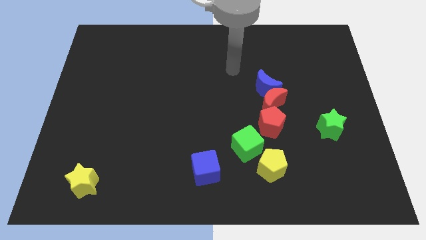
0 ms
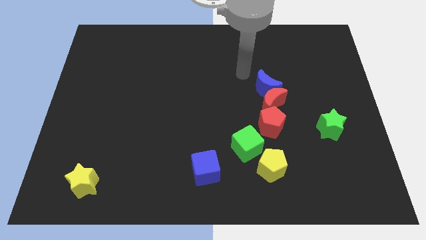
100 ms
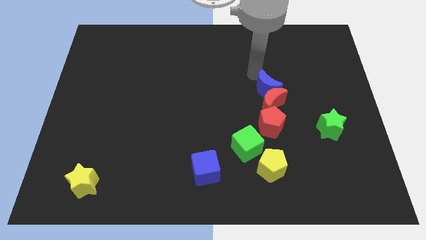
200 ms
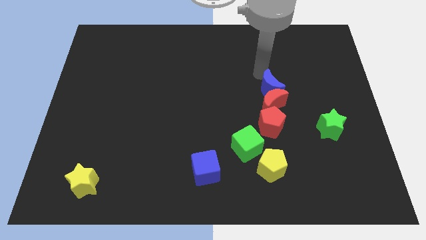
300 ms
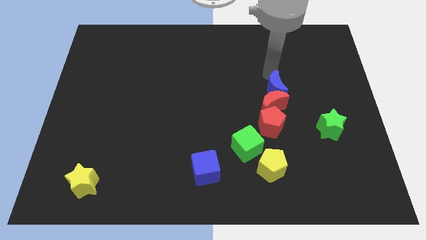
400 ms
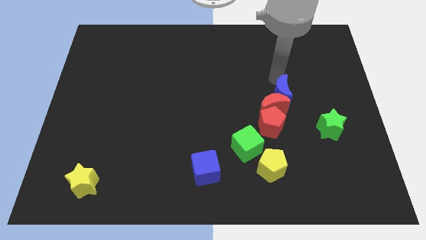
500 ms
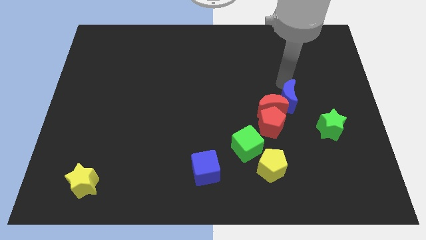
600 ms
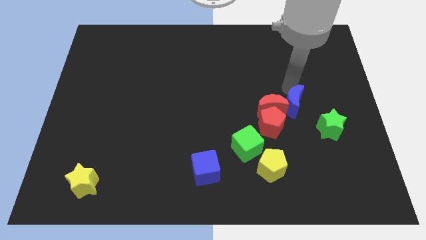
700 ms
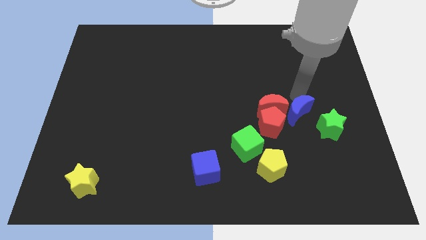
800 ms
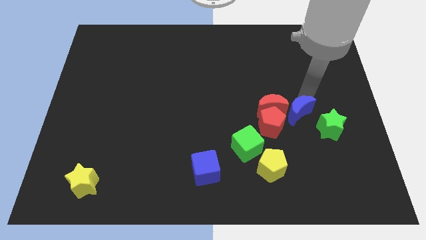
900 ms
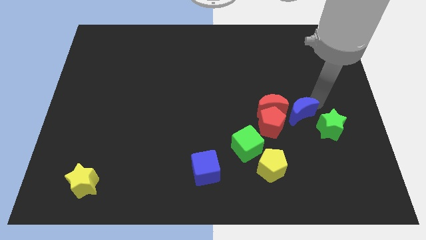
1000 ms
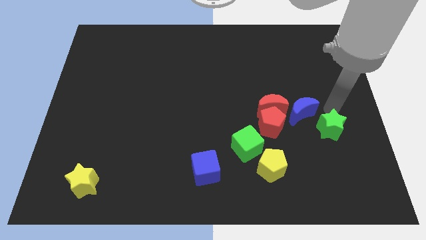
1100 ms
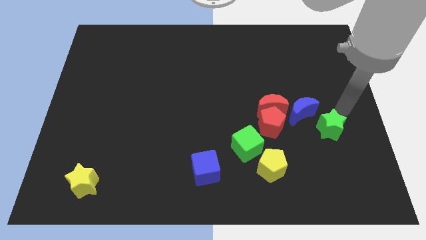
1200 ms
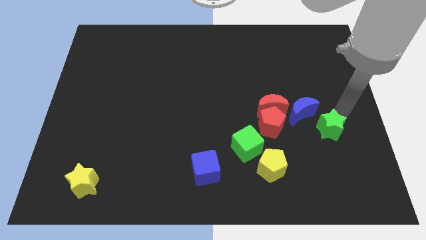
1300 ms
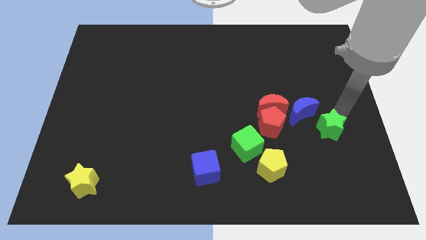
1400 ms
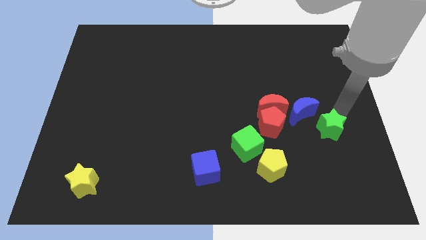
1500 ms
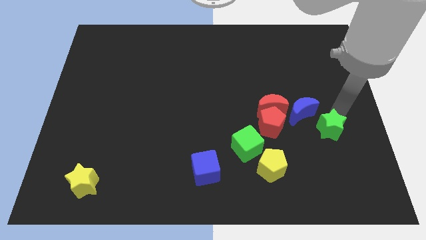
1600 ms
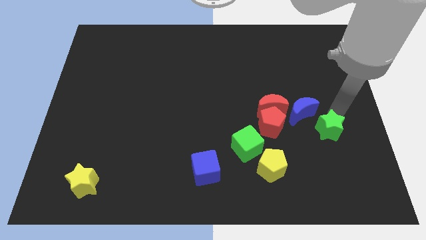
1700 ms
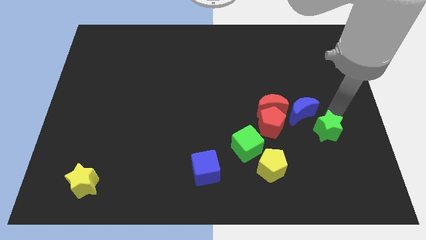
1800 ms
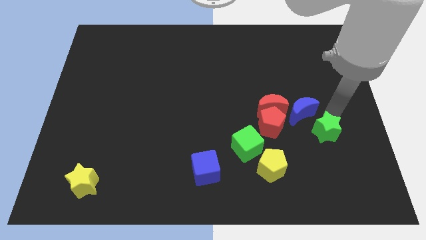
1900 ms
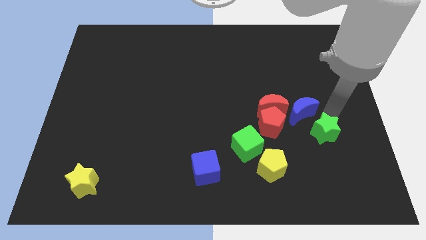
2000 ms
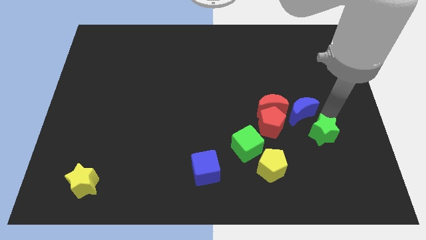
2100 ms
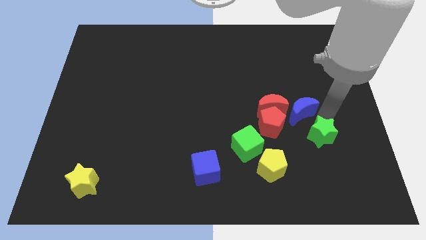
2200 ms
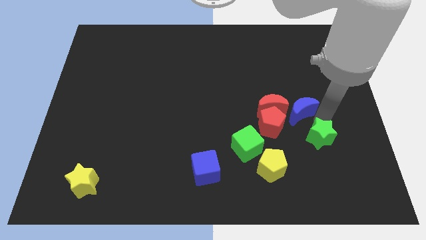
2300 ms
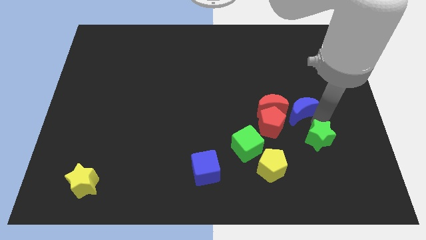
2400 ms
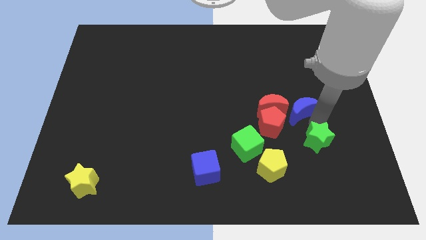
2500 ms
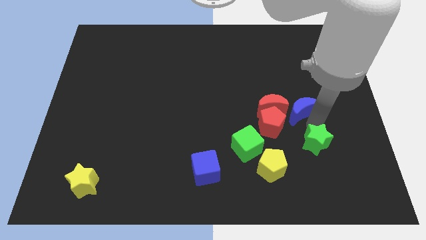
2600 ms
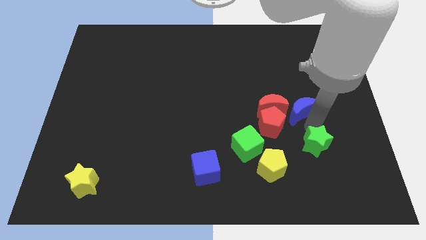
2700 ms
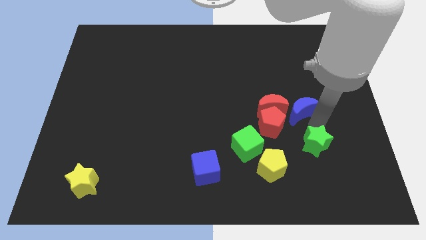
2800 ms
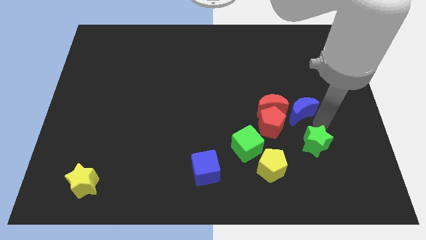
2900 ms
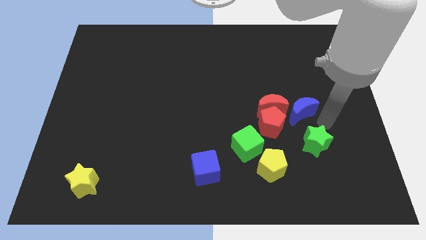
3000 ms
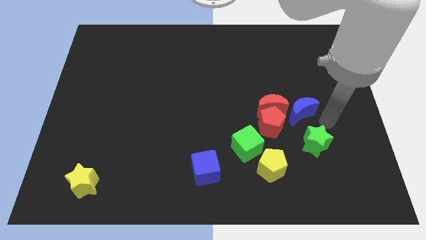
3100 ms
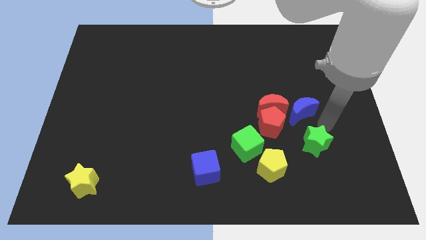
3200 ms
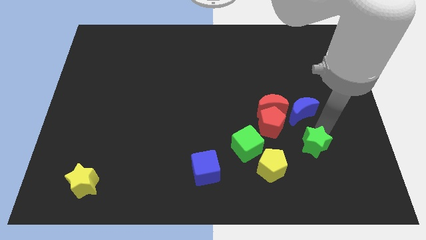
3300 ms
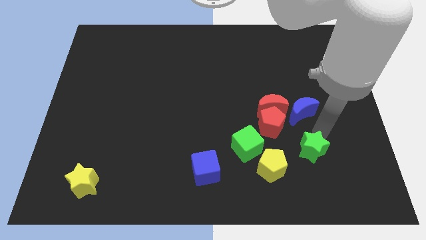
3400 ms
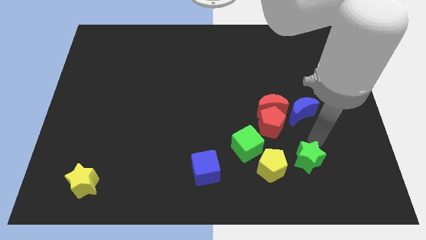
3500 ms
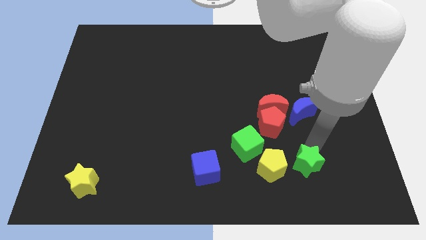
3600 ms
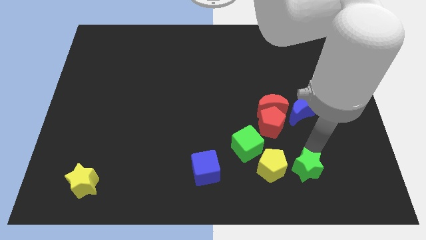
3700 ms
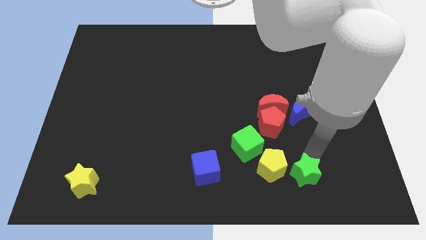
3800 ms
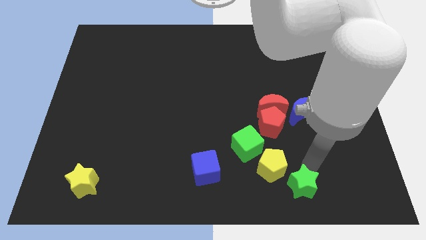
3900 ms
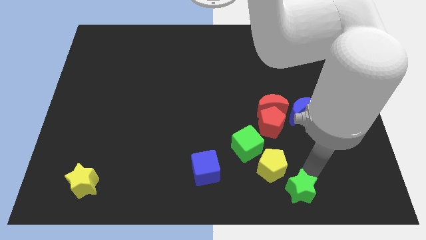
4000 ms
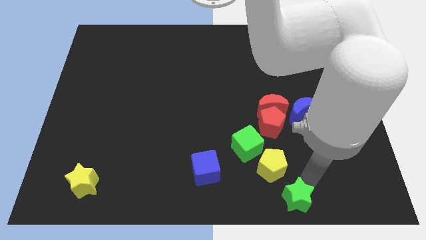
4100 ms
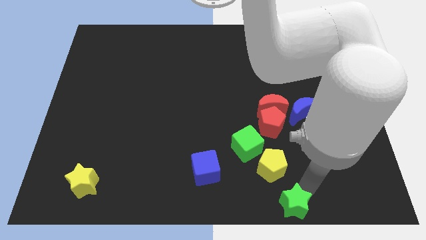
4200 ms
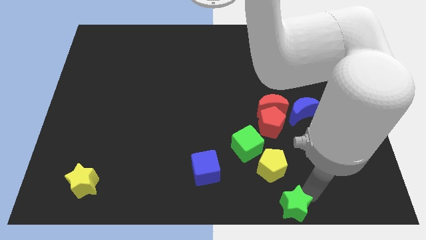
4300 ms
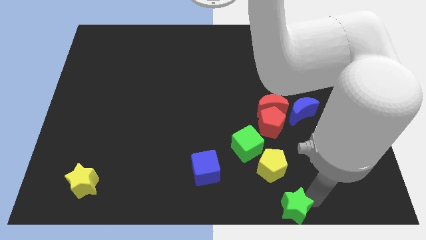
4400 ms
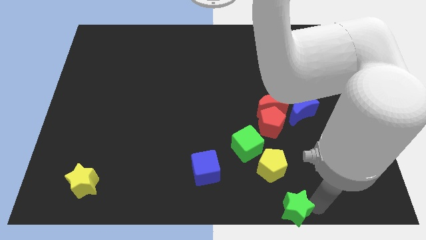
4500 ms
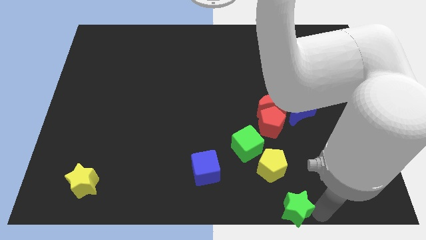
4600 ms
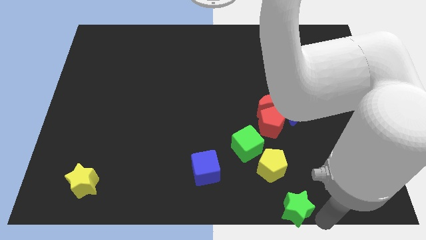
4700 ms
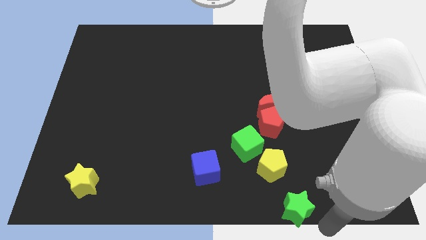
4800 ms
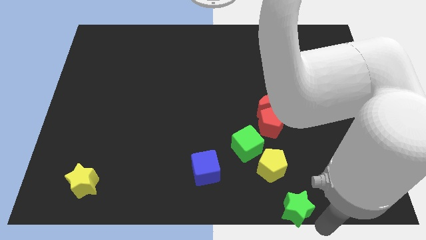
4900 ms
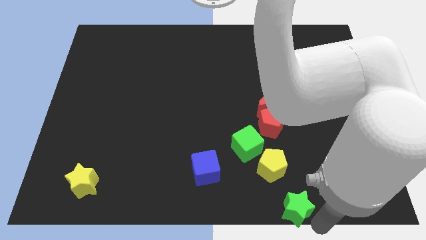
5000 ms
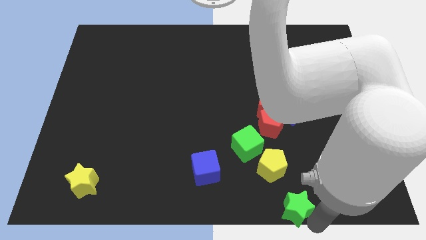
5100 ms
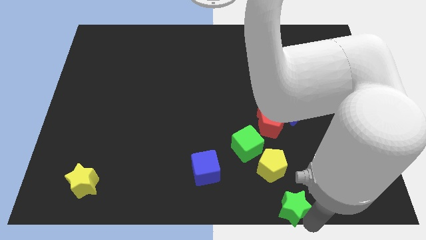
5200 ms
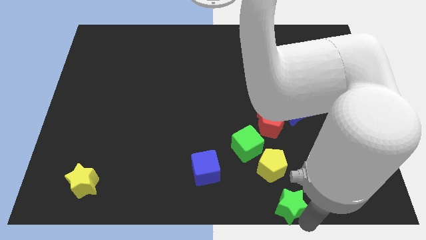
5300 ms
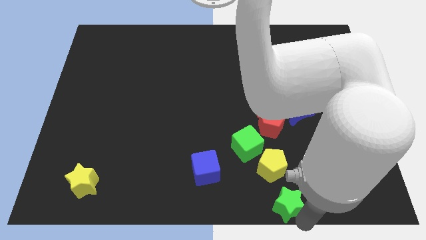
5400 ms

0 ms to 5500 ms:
move the green star to the bottom side

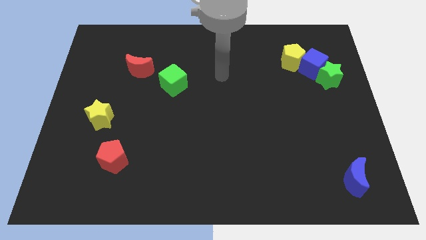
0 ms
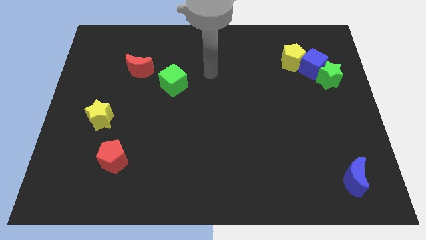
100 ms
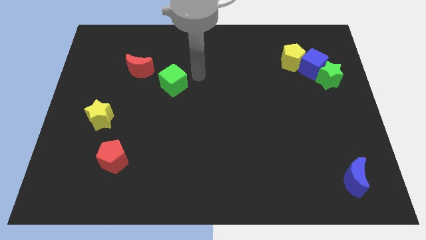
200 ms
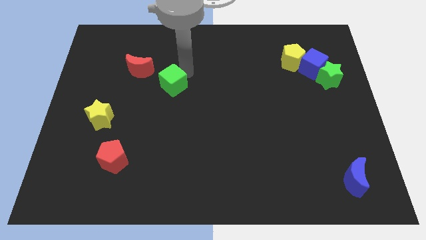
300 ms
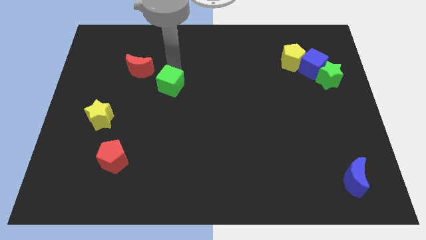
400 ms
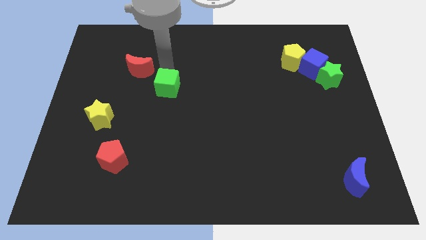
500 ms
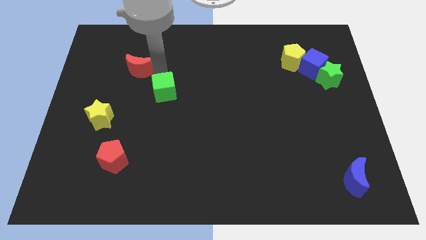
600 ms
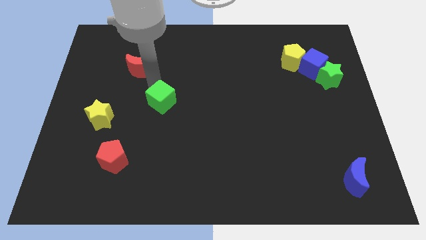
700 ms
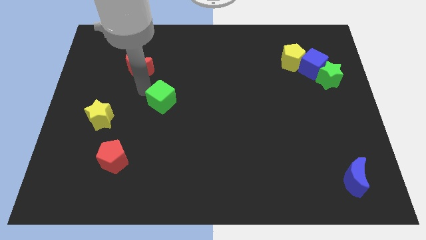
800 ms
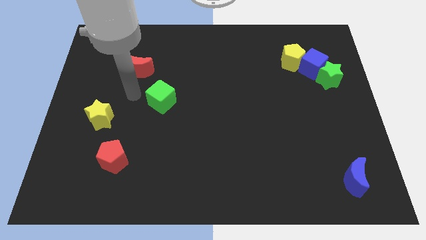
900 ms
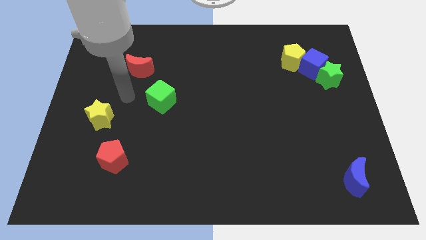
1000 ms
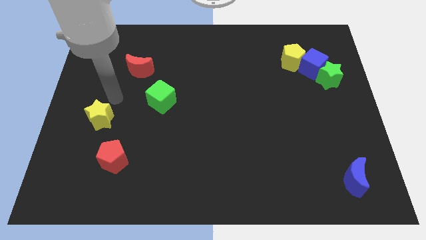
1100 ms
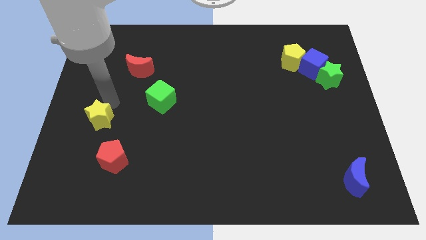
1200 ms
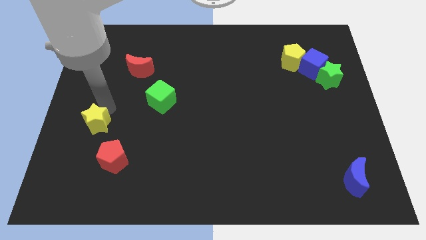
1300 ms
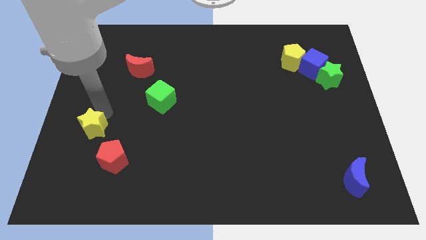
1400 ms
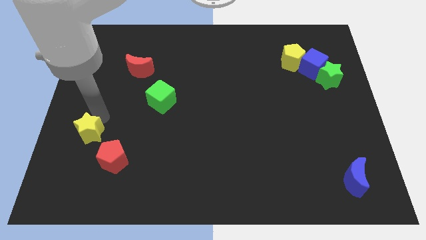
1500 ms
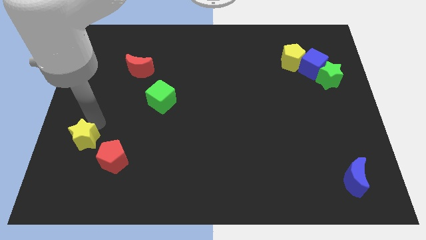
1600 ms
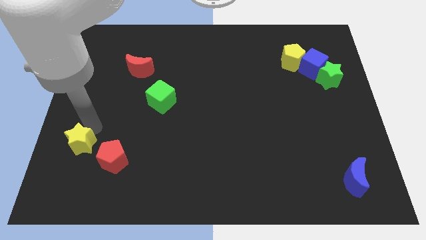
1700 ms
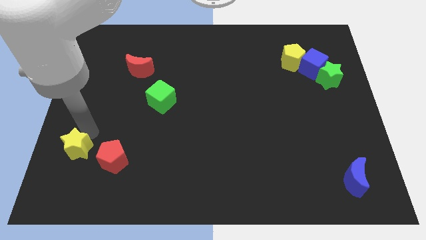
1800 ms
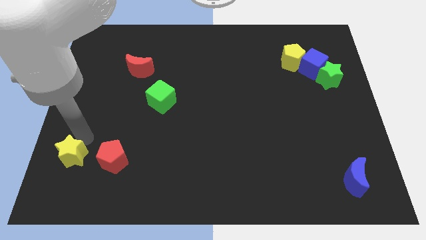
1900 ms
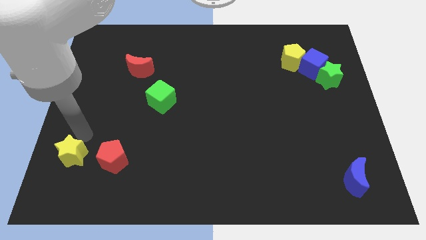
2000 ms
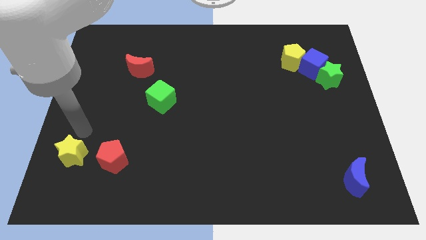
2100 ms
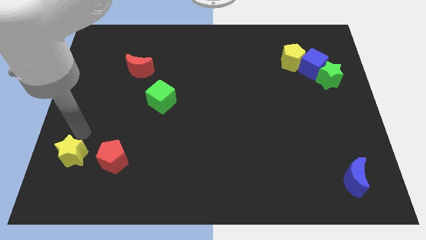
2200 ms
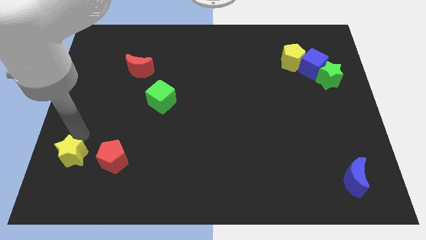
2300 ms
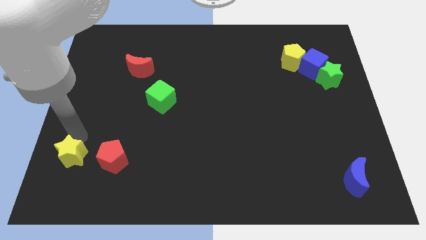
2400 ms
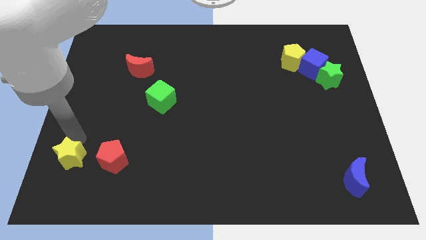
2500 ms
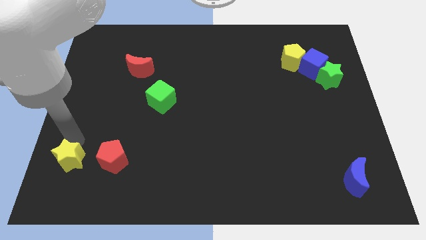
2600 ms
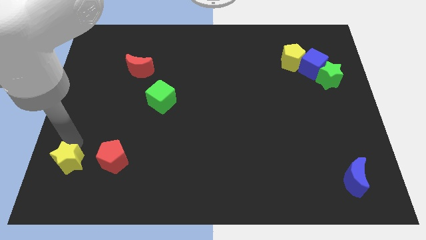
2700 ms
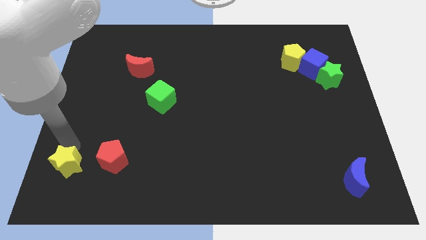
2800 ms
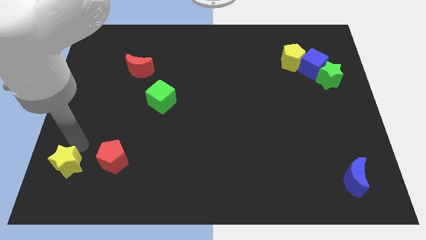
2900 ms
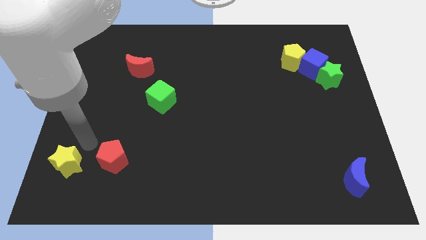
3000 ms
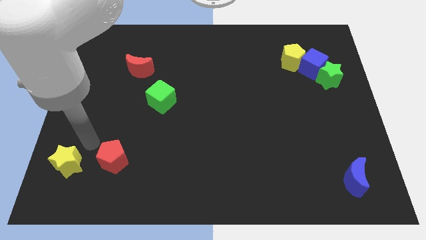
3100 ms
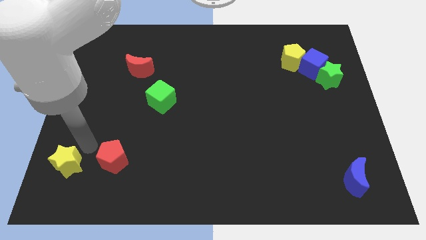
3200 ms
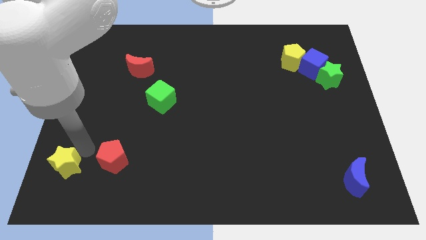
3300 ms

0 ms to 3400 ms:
put the yellow star to the bottom left
